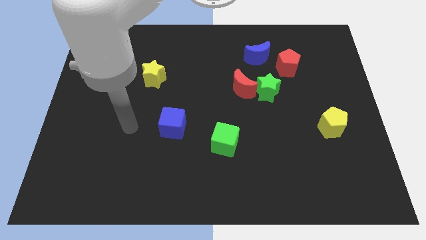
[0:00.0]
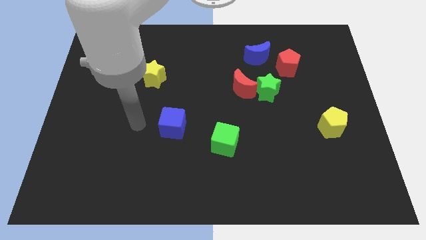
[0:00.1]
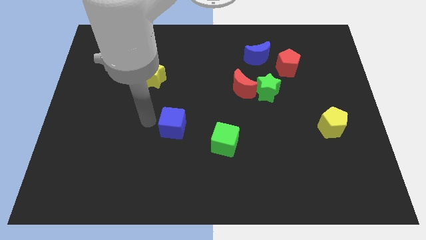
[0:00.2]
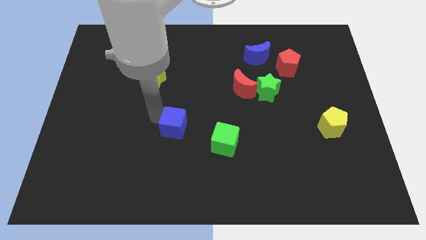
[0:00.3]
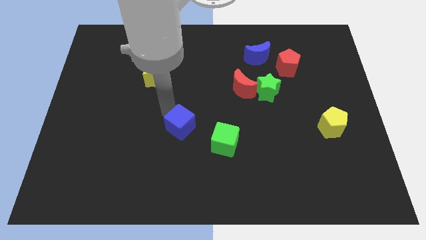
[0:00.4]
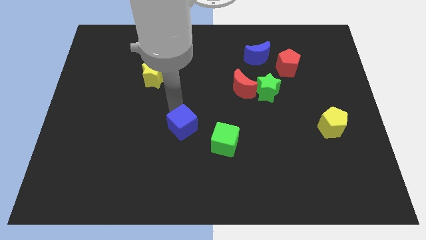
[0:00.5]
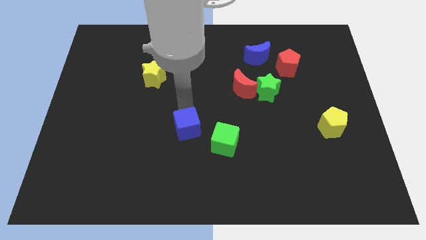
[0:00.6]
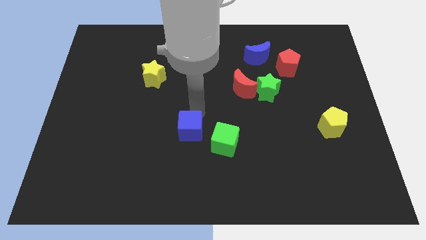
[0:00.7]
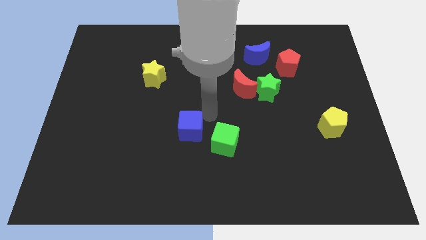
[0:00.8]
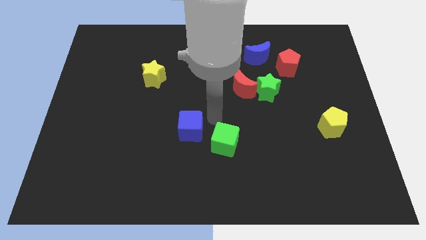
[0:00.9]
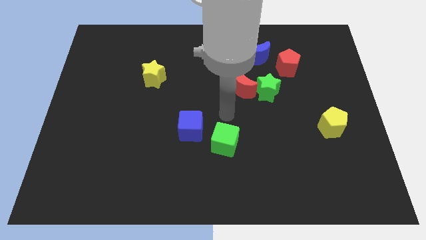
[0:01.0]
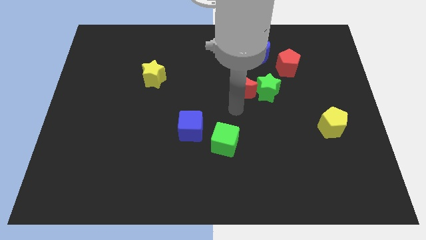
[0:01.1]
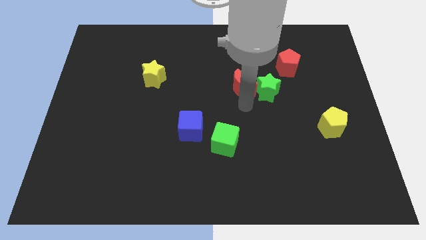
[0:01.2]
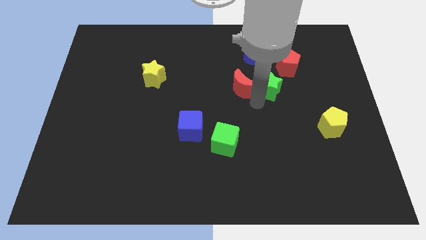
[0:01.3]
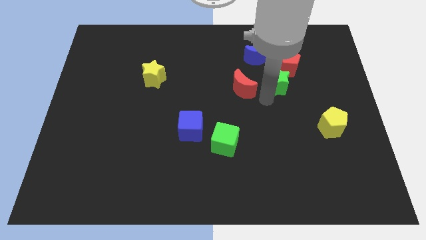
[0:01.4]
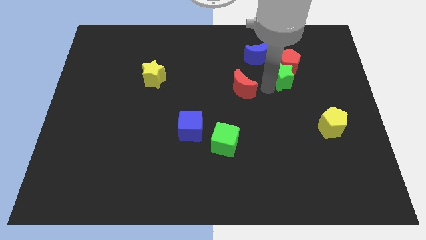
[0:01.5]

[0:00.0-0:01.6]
move the red moon away from the green star

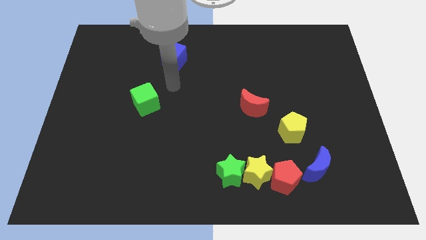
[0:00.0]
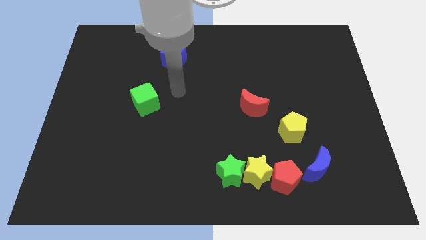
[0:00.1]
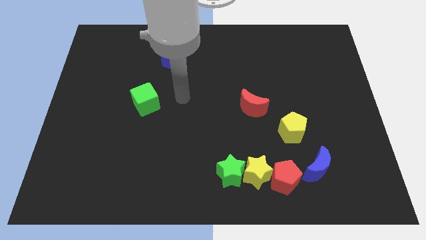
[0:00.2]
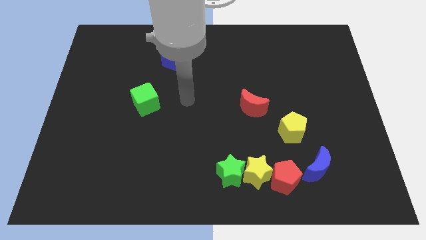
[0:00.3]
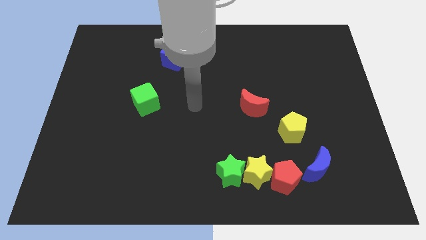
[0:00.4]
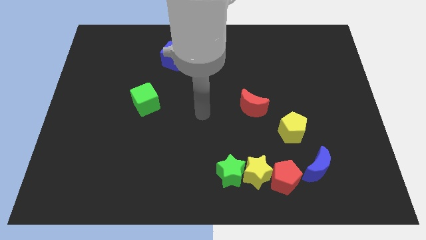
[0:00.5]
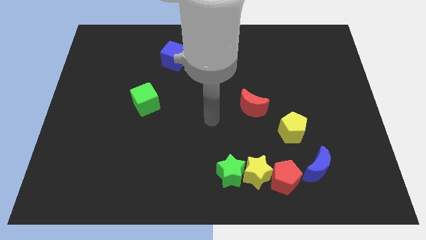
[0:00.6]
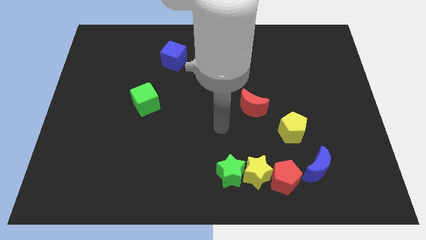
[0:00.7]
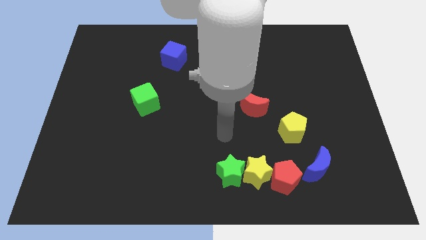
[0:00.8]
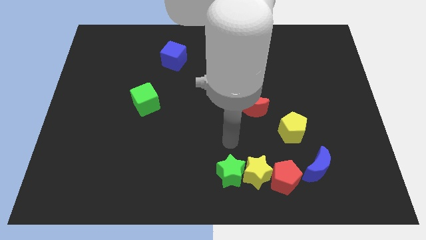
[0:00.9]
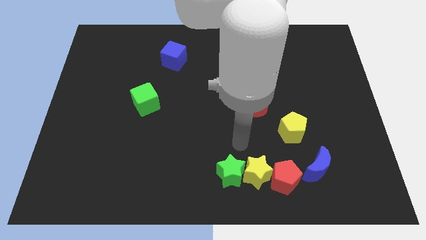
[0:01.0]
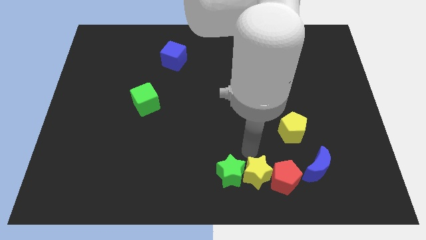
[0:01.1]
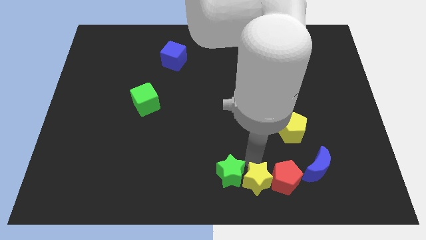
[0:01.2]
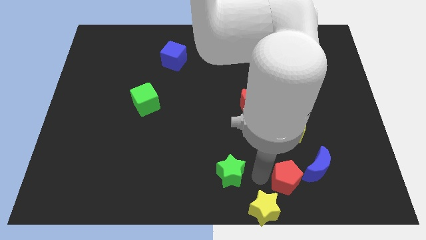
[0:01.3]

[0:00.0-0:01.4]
separate the green star from the yellow star

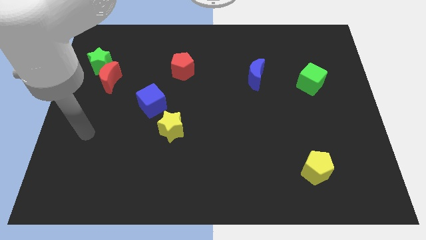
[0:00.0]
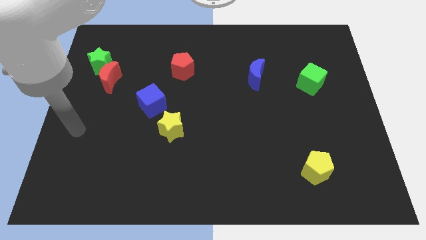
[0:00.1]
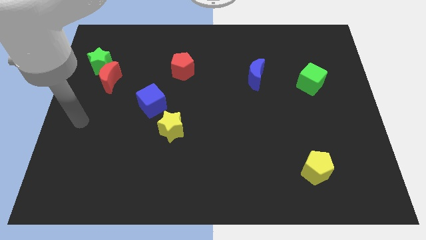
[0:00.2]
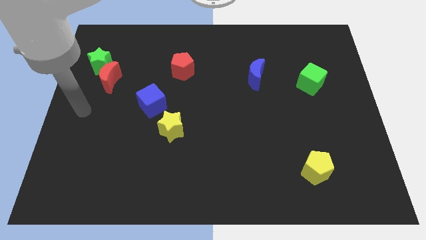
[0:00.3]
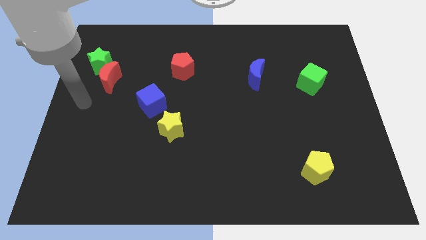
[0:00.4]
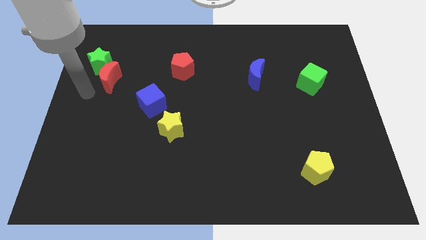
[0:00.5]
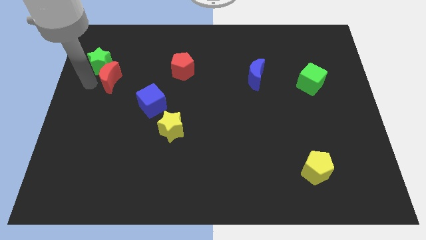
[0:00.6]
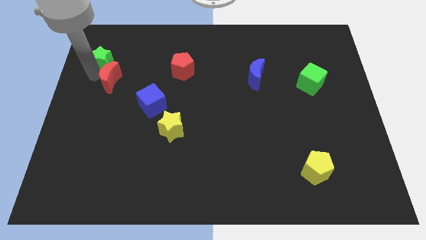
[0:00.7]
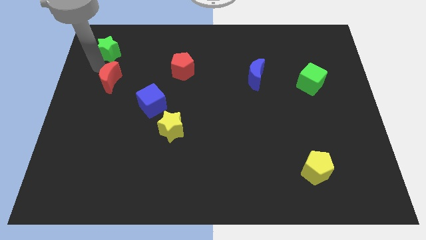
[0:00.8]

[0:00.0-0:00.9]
separate the red moon from the green star

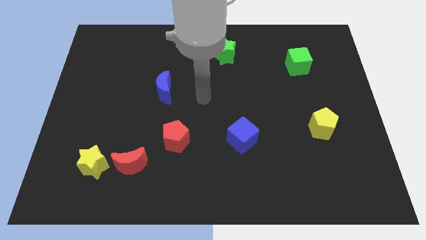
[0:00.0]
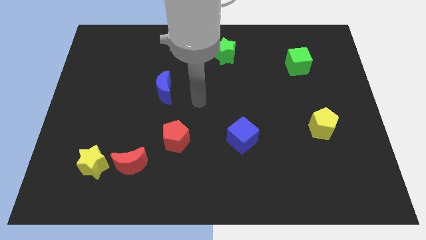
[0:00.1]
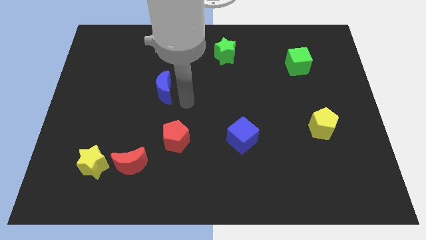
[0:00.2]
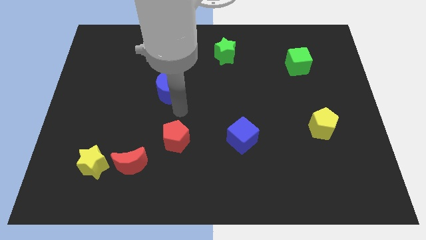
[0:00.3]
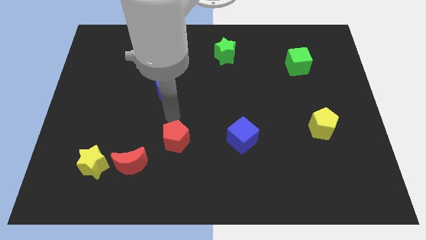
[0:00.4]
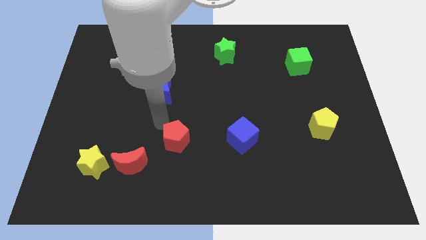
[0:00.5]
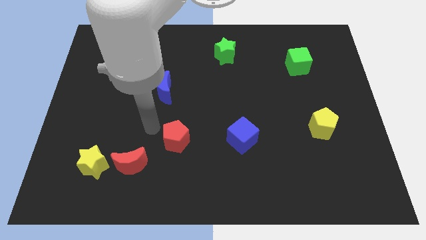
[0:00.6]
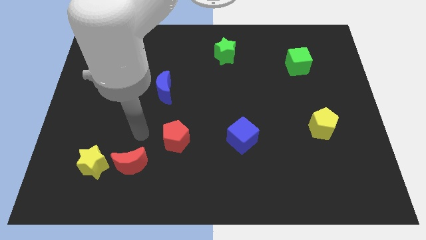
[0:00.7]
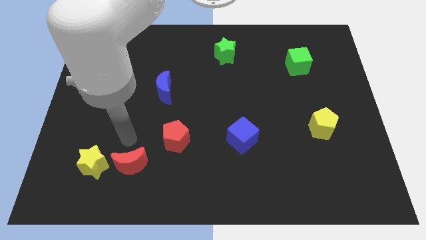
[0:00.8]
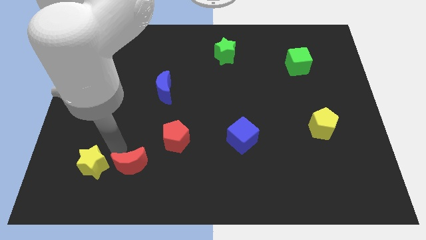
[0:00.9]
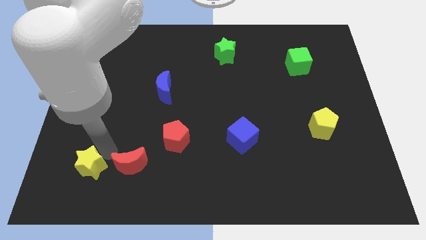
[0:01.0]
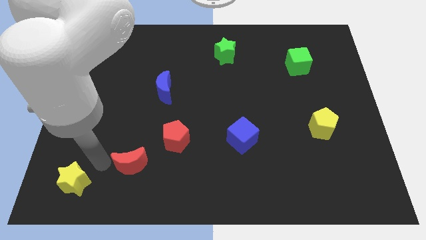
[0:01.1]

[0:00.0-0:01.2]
pull the red moon apart from the yellow star

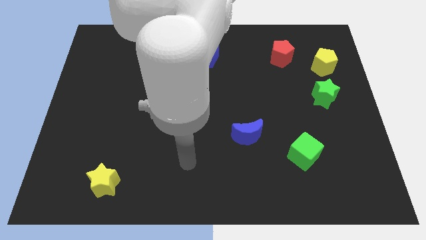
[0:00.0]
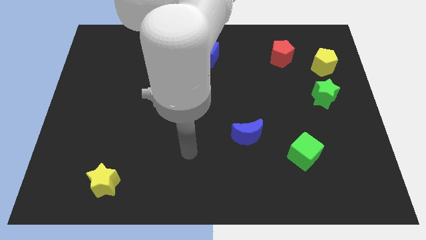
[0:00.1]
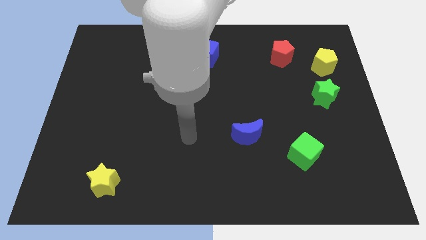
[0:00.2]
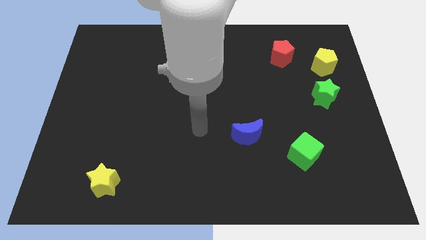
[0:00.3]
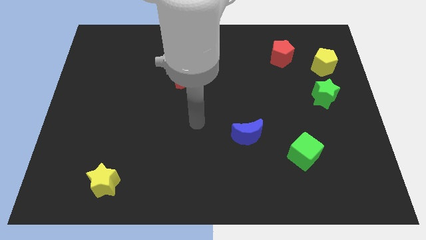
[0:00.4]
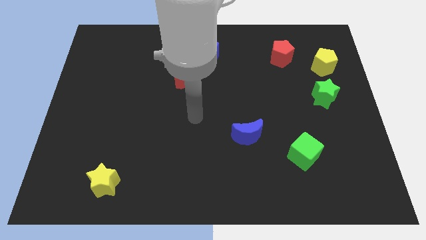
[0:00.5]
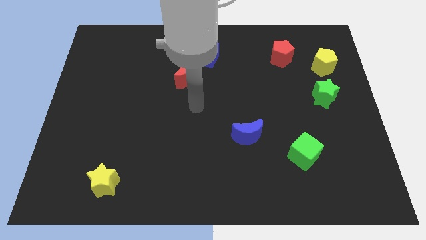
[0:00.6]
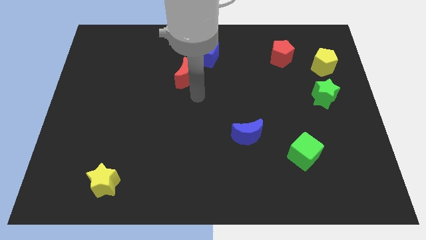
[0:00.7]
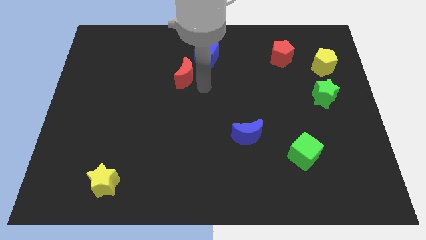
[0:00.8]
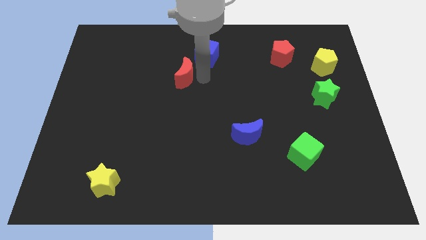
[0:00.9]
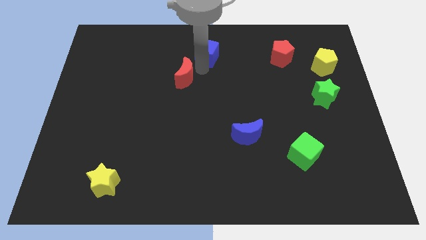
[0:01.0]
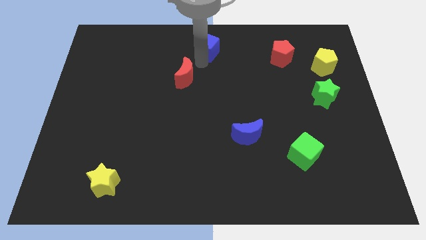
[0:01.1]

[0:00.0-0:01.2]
pull the red moon apart from the blue cube

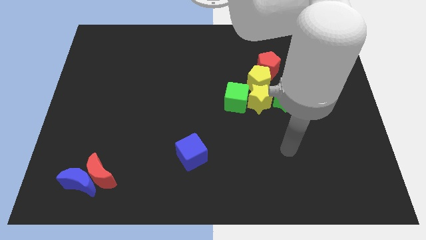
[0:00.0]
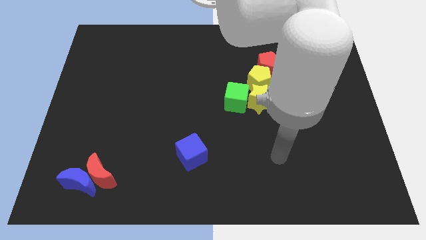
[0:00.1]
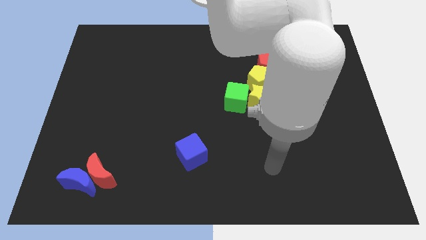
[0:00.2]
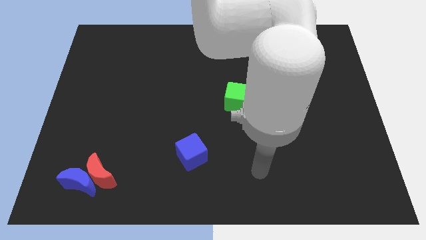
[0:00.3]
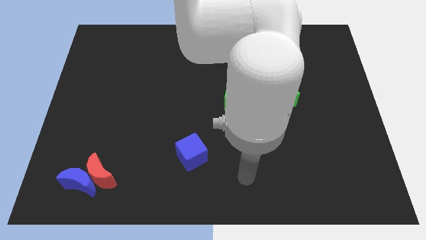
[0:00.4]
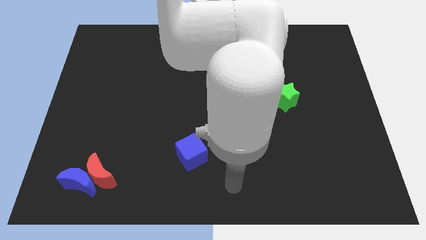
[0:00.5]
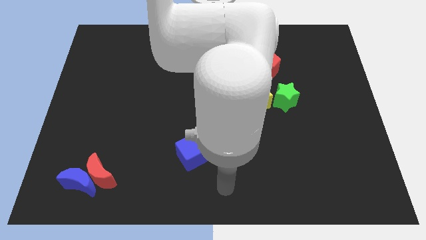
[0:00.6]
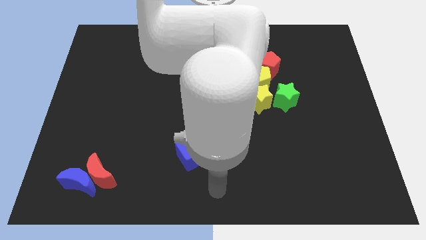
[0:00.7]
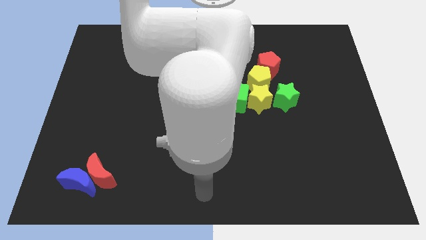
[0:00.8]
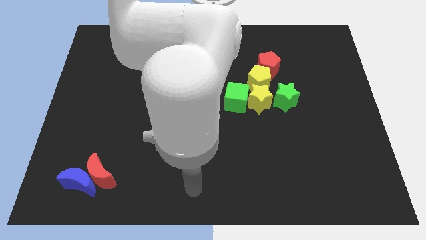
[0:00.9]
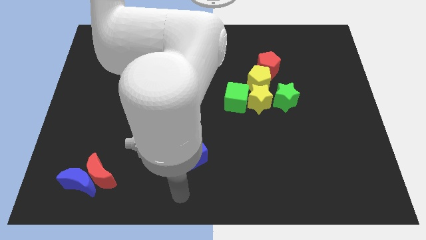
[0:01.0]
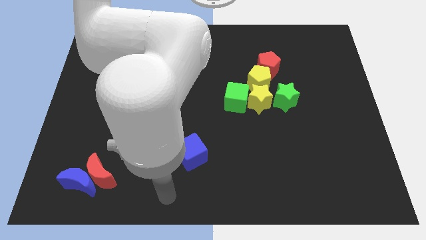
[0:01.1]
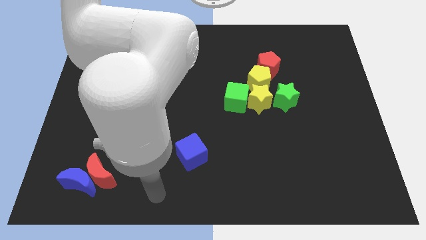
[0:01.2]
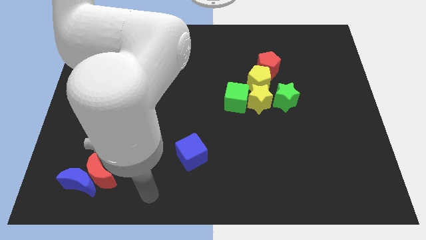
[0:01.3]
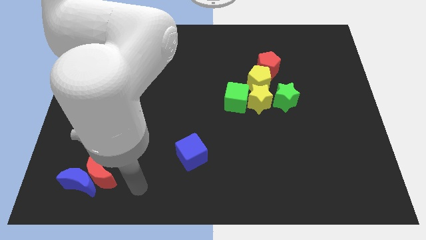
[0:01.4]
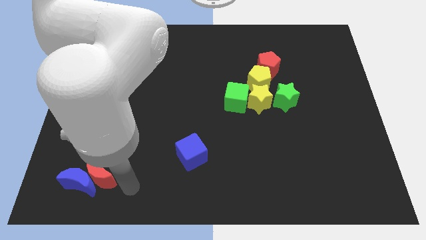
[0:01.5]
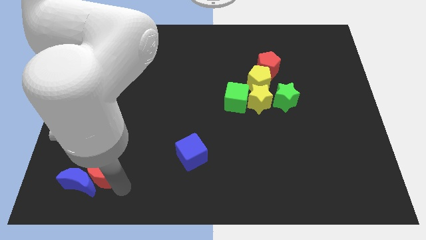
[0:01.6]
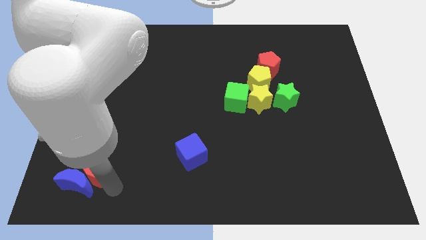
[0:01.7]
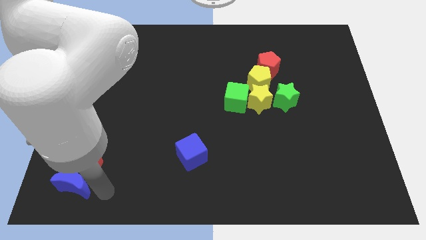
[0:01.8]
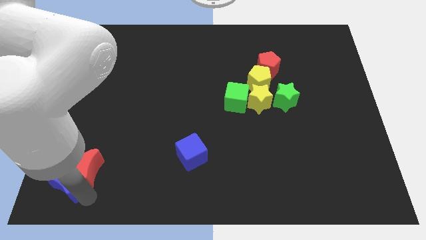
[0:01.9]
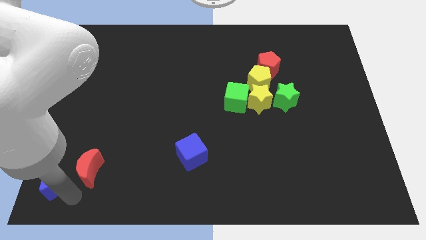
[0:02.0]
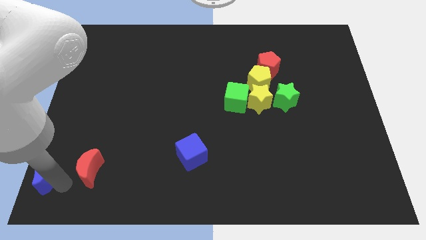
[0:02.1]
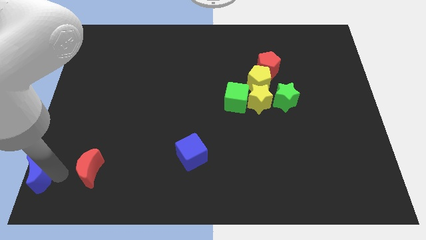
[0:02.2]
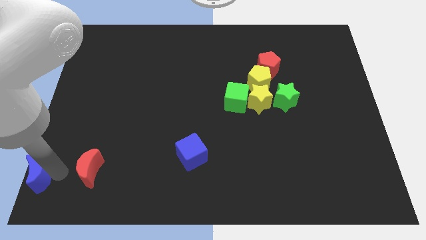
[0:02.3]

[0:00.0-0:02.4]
move the red moon away from the blue moon

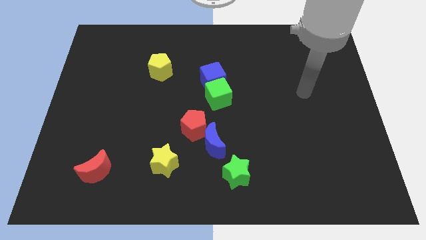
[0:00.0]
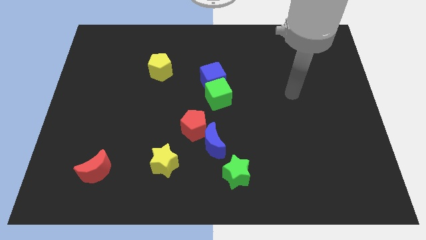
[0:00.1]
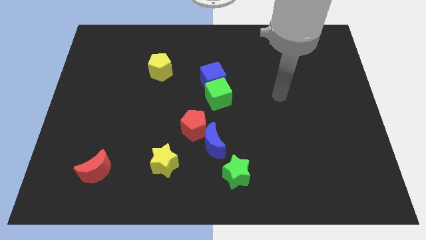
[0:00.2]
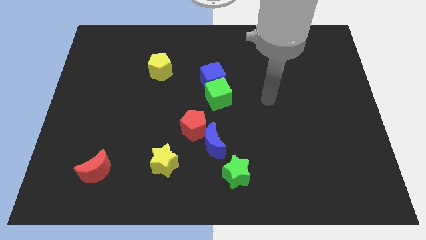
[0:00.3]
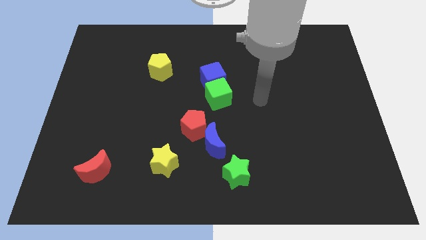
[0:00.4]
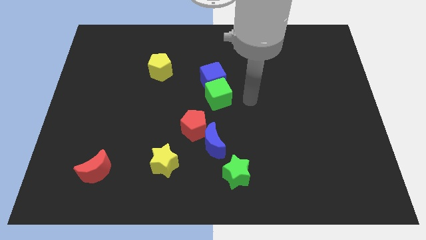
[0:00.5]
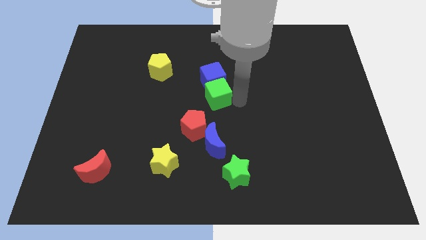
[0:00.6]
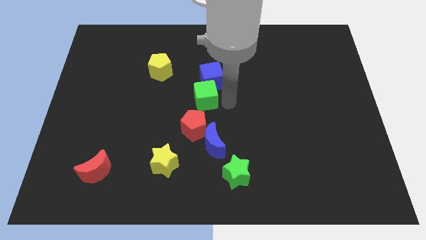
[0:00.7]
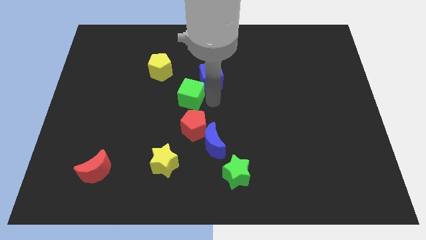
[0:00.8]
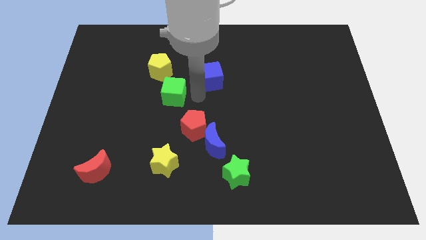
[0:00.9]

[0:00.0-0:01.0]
separate the blue cube from the green cube
